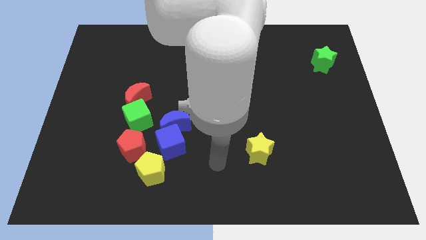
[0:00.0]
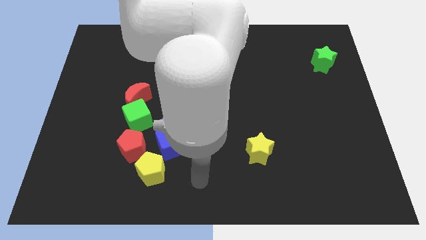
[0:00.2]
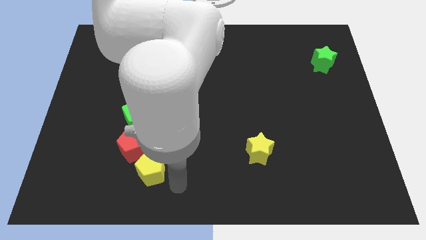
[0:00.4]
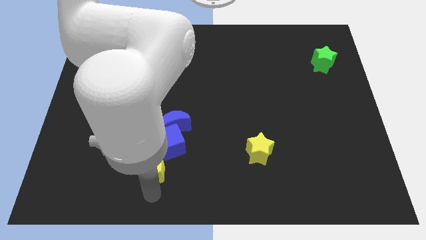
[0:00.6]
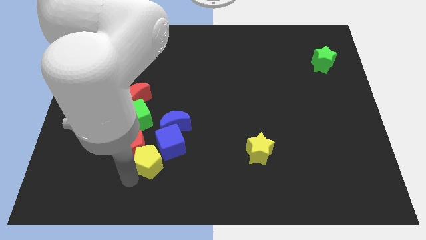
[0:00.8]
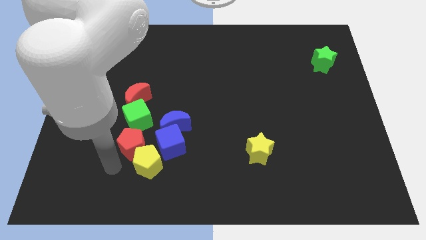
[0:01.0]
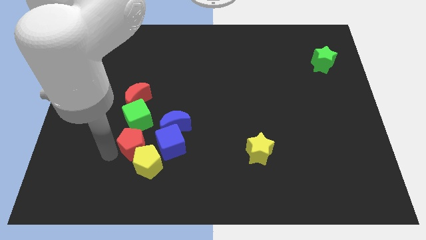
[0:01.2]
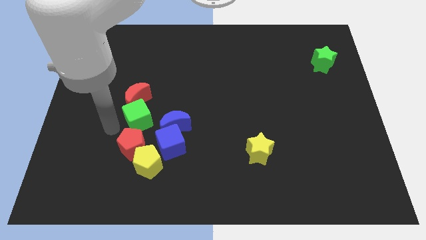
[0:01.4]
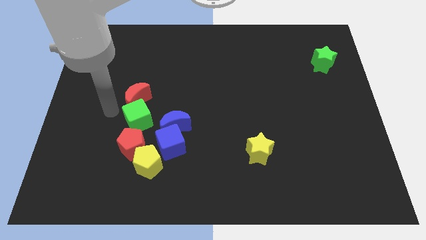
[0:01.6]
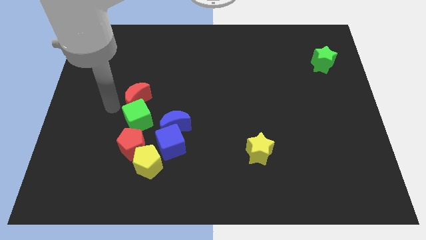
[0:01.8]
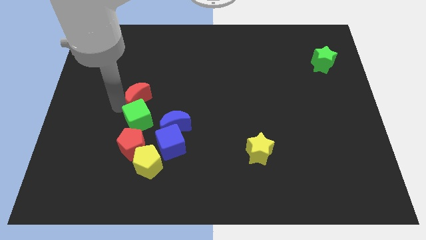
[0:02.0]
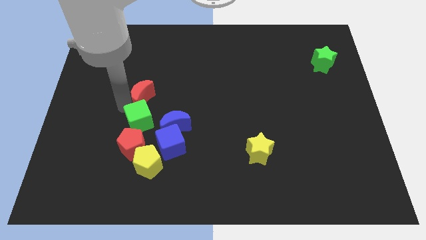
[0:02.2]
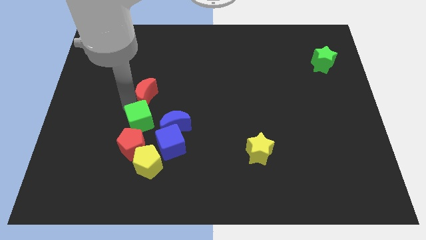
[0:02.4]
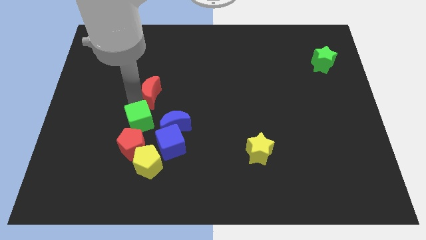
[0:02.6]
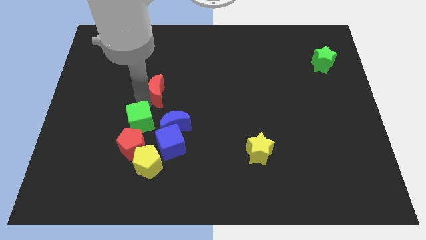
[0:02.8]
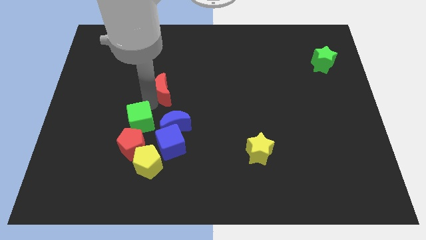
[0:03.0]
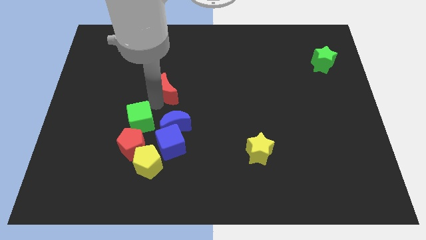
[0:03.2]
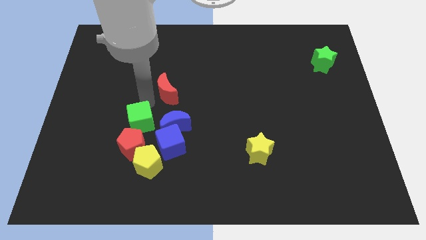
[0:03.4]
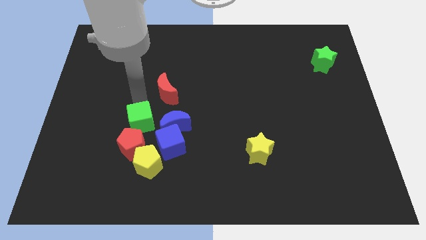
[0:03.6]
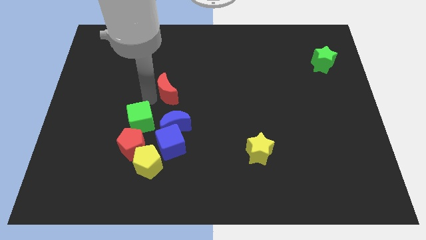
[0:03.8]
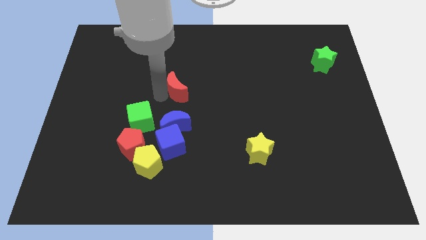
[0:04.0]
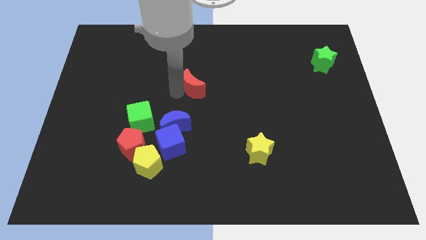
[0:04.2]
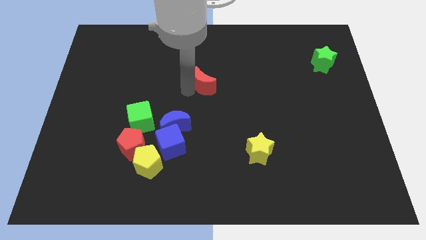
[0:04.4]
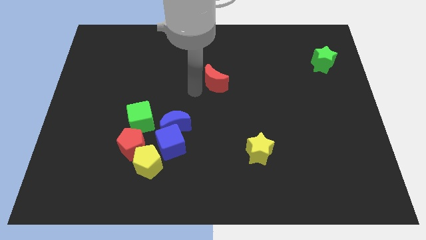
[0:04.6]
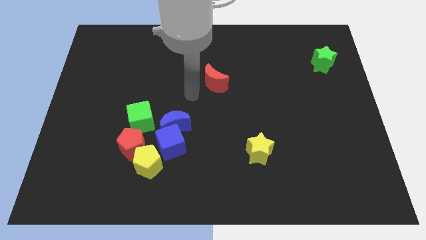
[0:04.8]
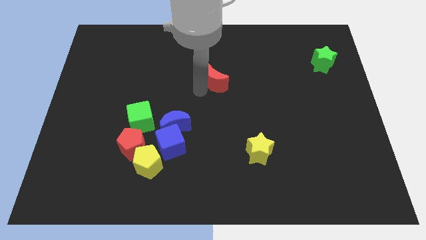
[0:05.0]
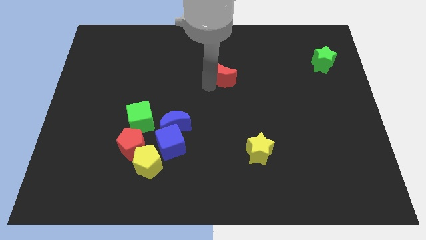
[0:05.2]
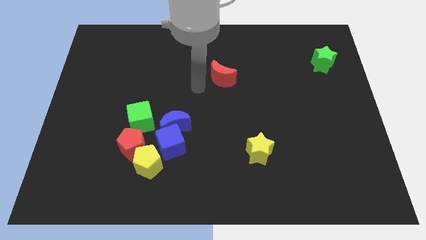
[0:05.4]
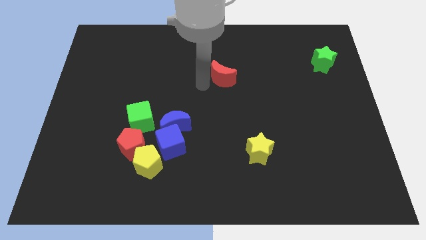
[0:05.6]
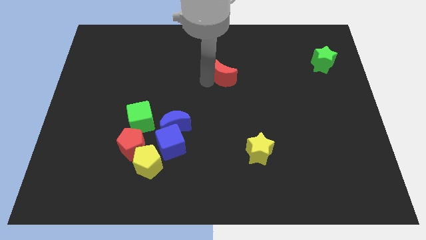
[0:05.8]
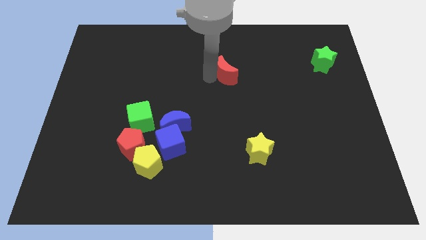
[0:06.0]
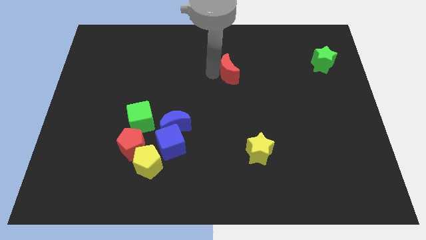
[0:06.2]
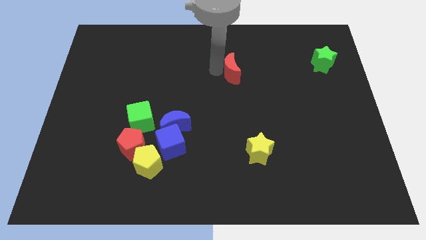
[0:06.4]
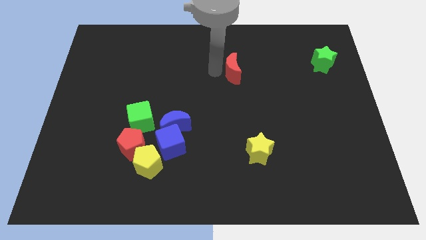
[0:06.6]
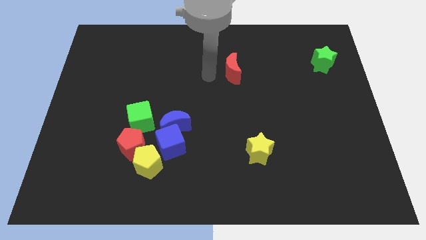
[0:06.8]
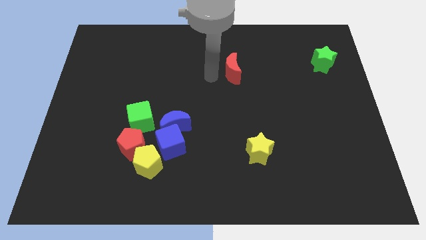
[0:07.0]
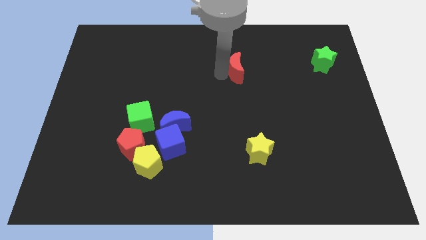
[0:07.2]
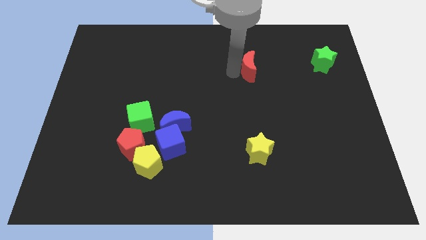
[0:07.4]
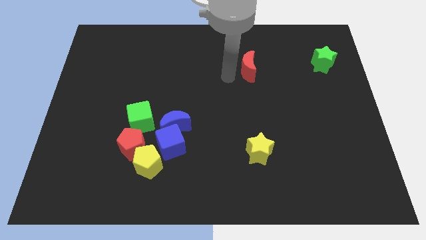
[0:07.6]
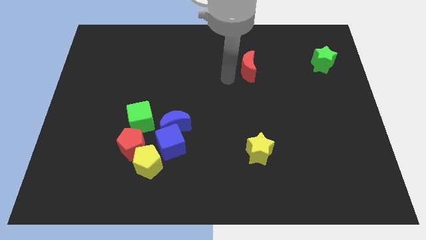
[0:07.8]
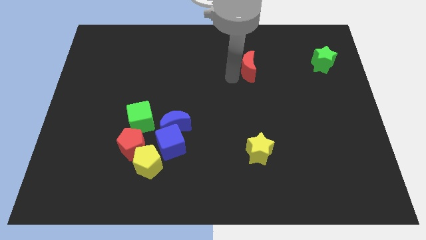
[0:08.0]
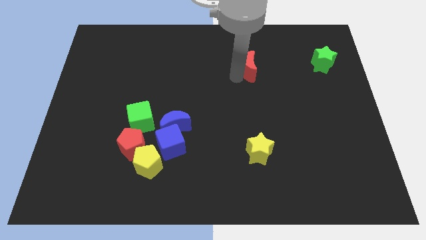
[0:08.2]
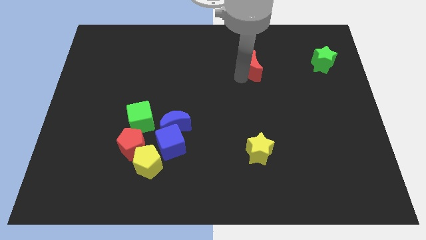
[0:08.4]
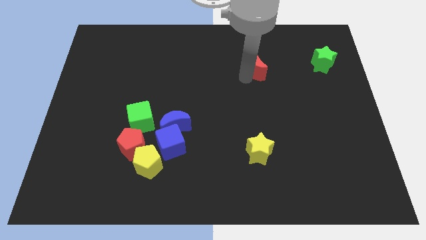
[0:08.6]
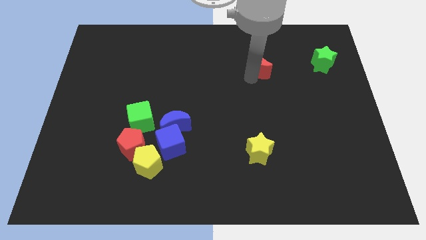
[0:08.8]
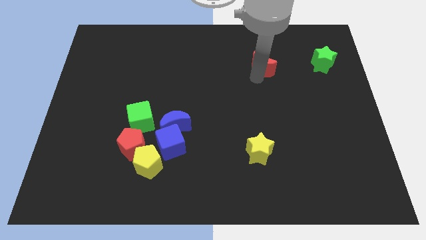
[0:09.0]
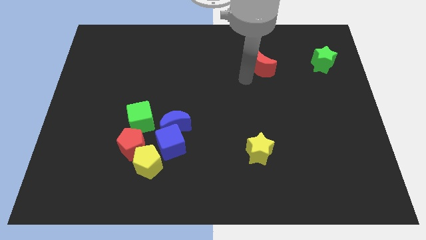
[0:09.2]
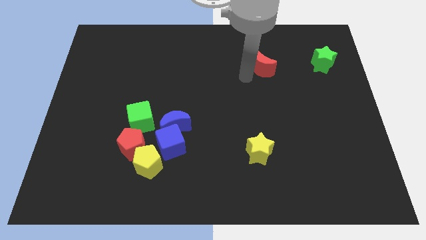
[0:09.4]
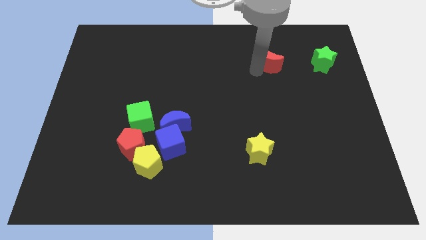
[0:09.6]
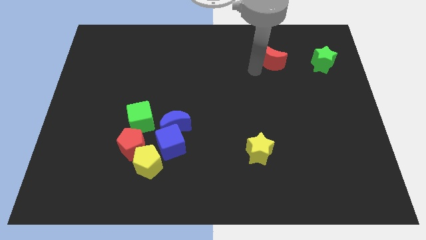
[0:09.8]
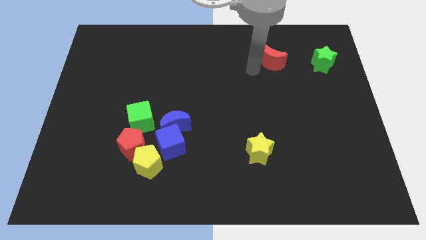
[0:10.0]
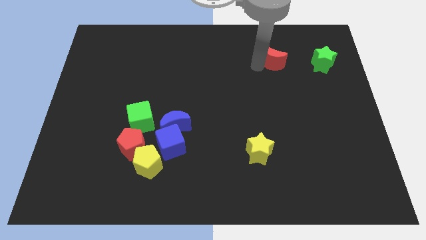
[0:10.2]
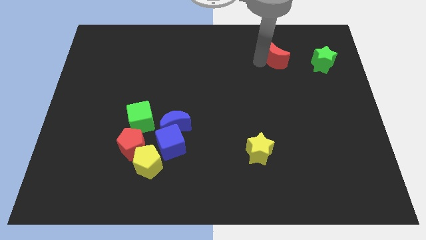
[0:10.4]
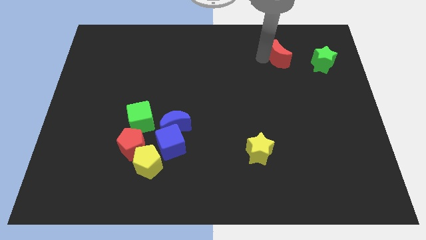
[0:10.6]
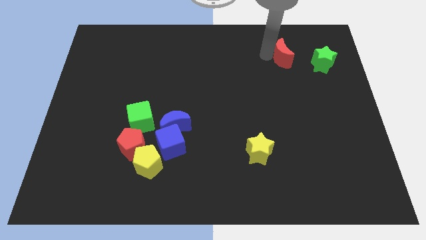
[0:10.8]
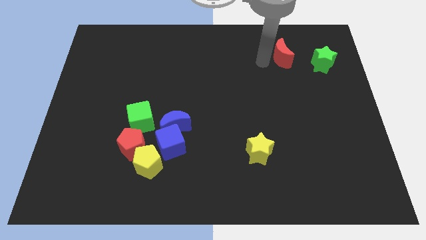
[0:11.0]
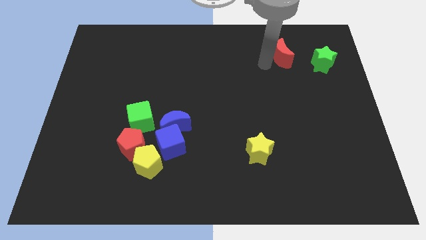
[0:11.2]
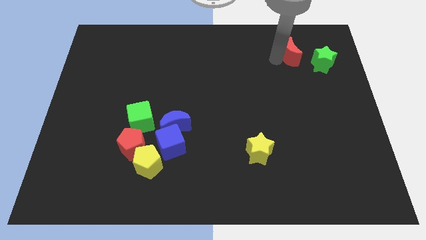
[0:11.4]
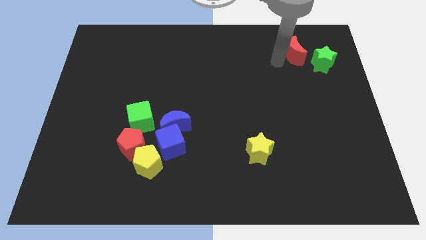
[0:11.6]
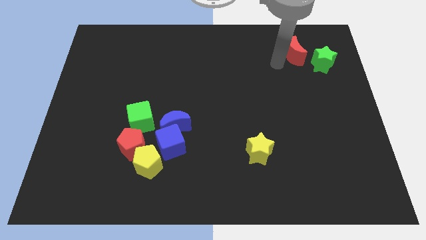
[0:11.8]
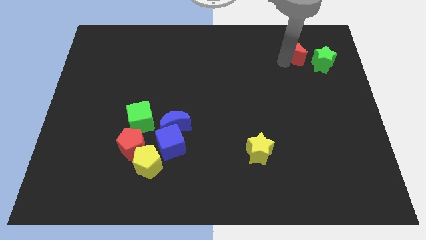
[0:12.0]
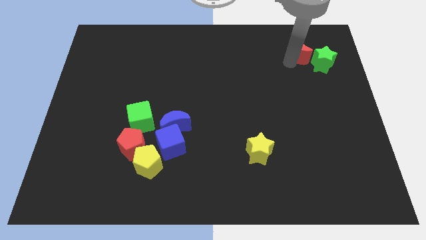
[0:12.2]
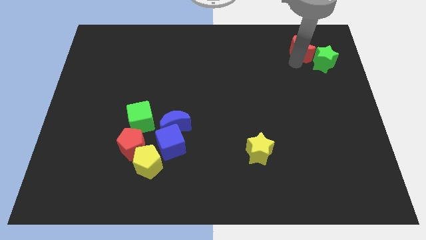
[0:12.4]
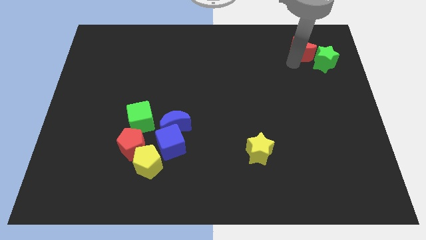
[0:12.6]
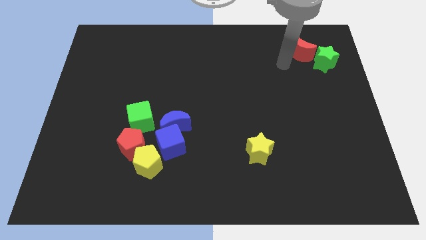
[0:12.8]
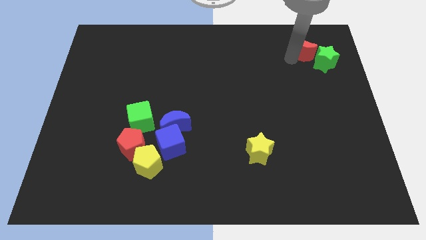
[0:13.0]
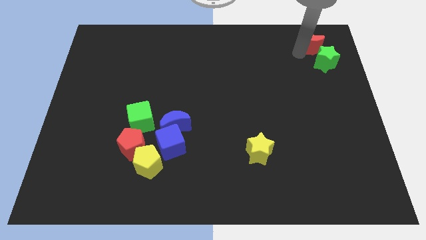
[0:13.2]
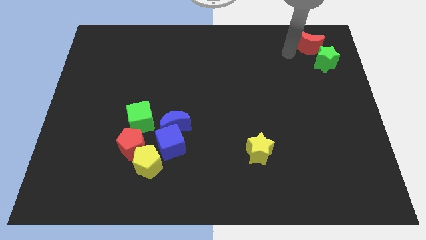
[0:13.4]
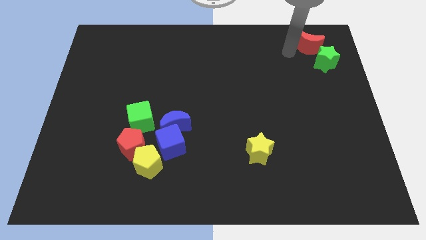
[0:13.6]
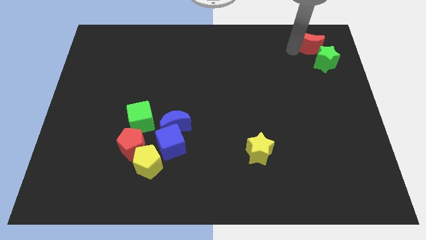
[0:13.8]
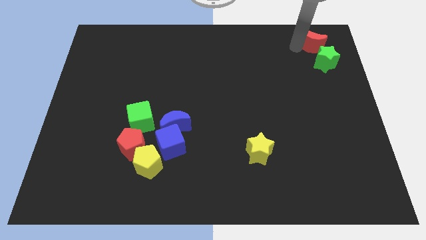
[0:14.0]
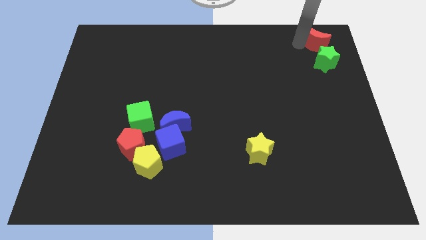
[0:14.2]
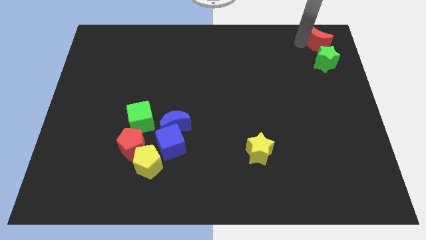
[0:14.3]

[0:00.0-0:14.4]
slide the red moon to the top right
